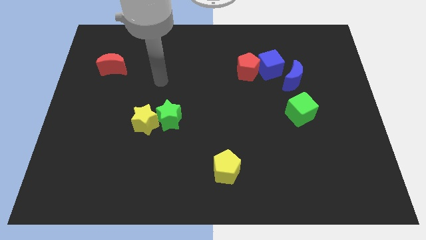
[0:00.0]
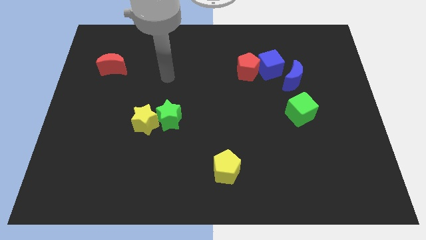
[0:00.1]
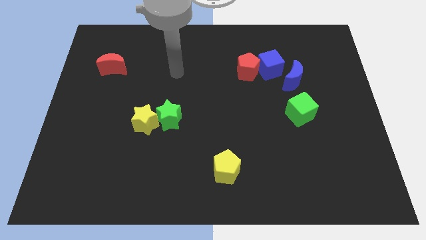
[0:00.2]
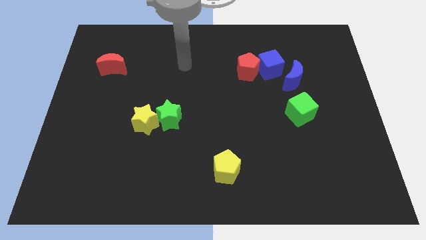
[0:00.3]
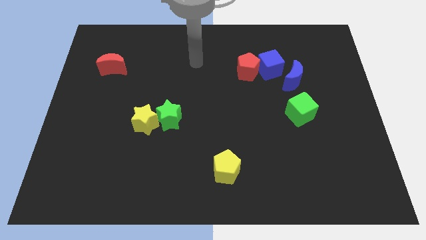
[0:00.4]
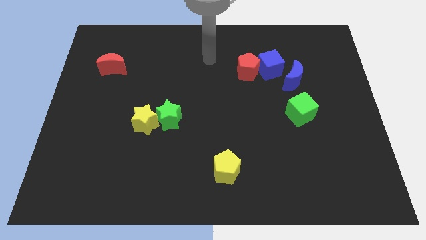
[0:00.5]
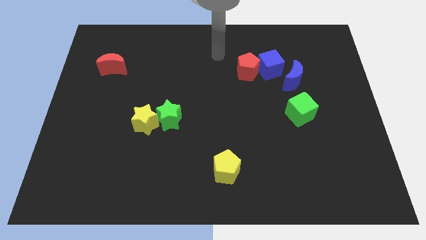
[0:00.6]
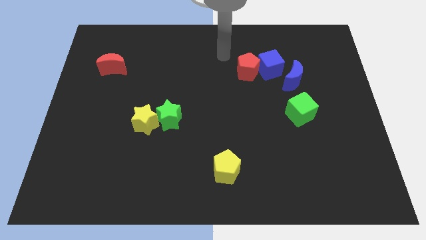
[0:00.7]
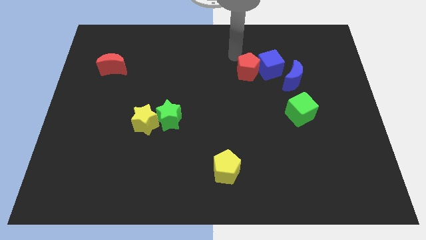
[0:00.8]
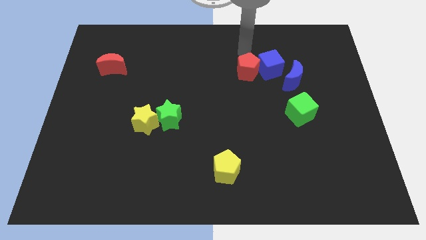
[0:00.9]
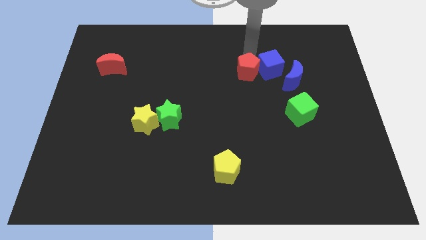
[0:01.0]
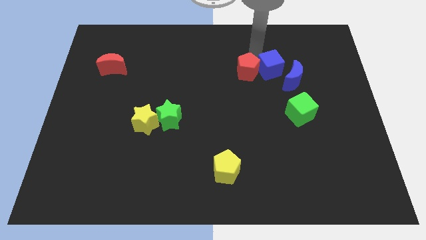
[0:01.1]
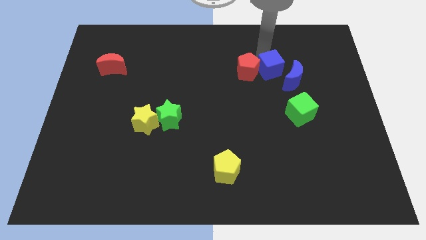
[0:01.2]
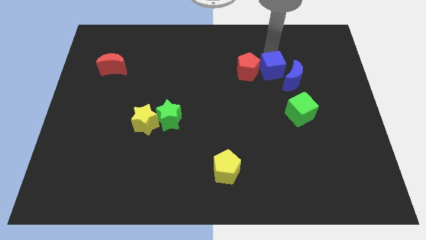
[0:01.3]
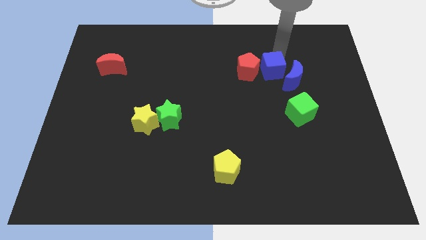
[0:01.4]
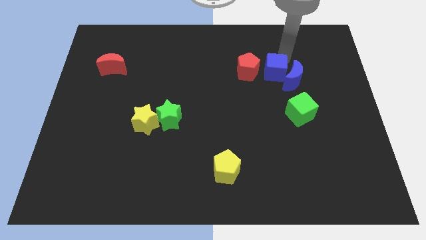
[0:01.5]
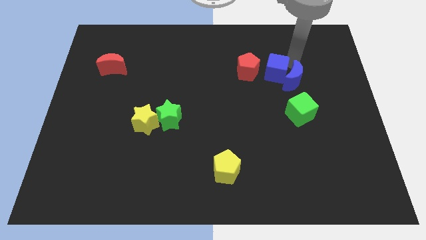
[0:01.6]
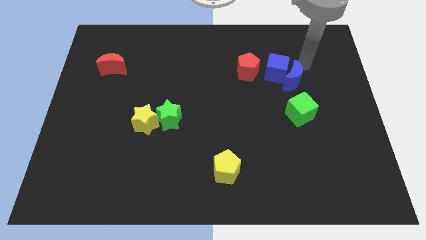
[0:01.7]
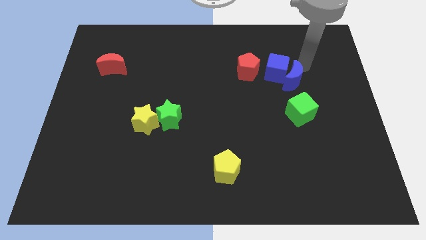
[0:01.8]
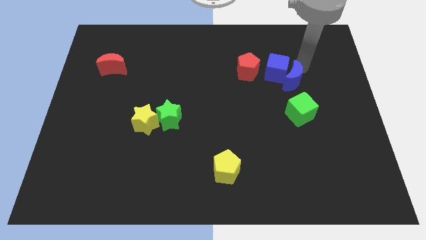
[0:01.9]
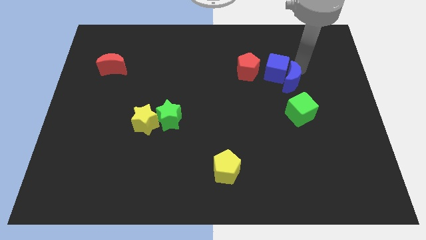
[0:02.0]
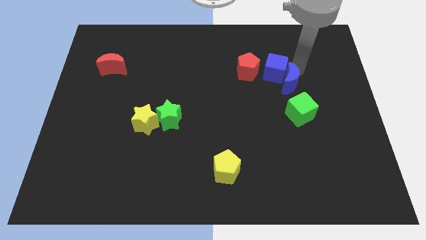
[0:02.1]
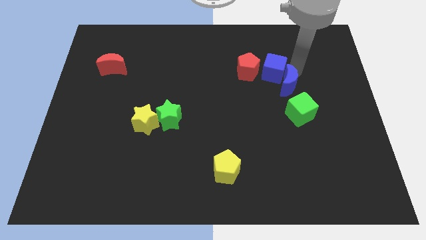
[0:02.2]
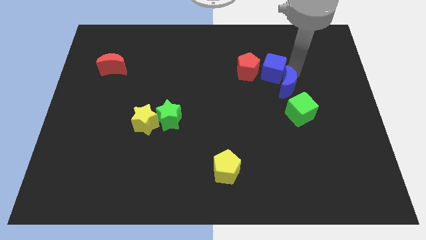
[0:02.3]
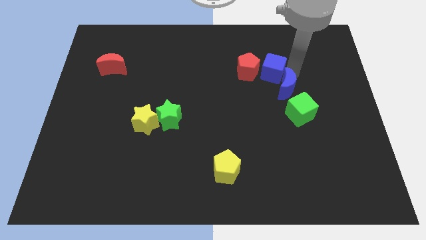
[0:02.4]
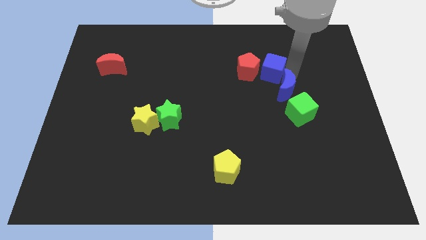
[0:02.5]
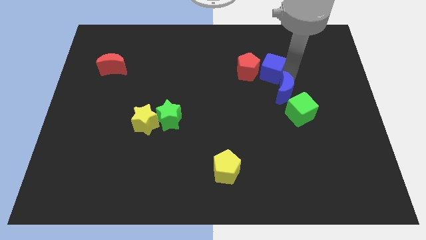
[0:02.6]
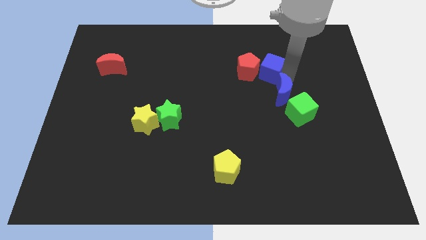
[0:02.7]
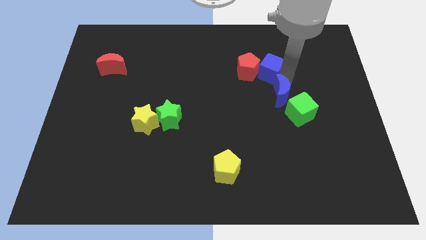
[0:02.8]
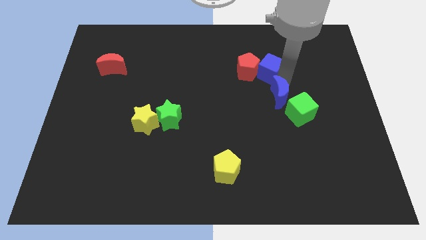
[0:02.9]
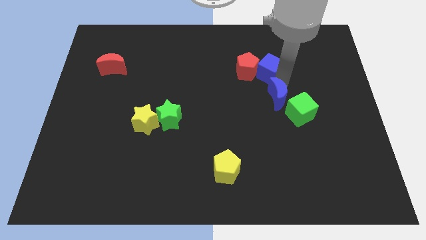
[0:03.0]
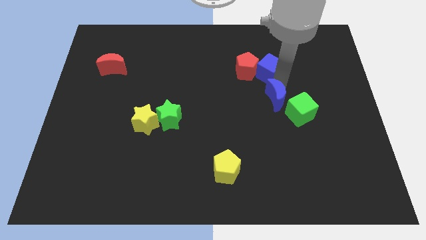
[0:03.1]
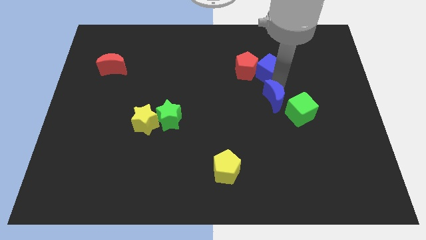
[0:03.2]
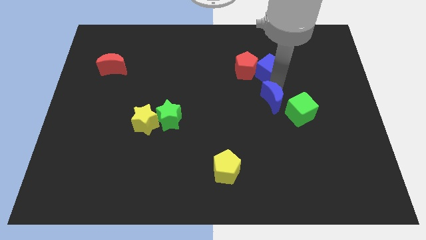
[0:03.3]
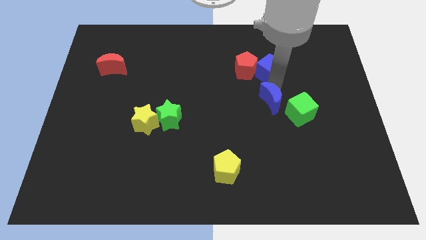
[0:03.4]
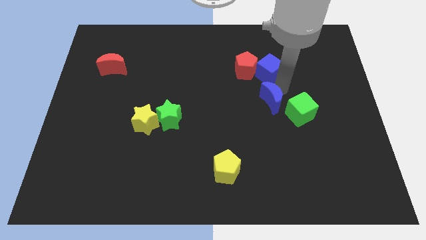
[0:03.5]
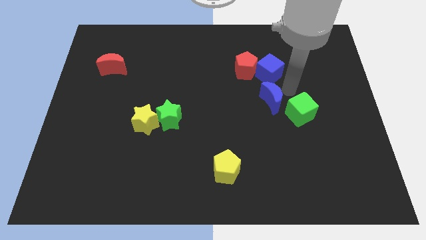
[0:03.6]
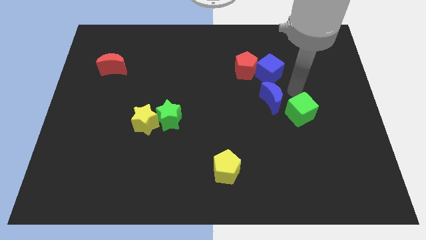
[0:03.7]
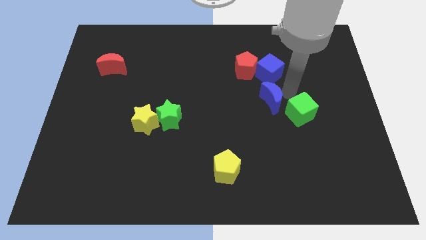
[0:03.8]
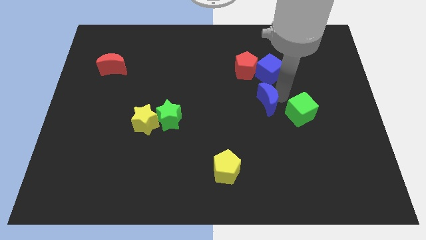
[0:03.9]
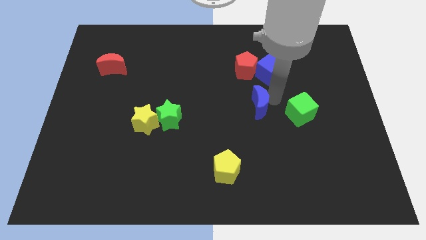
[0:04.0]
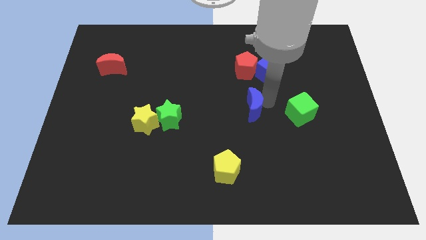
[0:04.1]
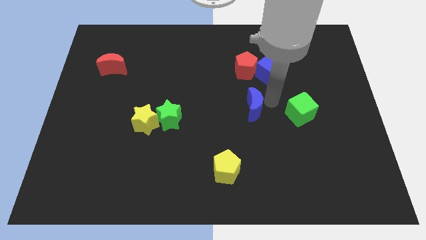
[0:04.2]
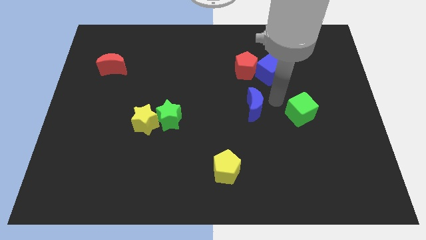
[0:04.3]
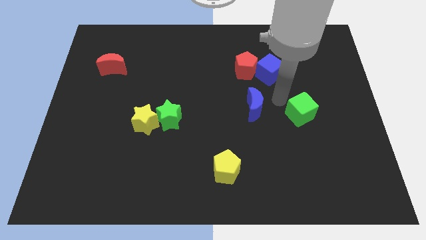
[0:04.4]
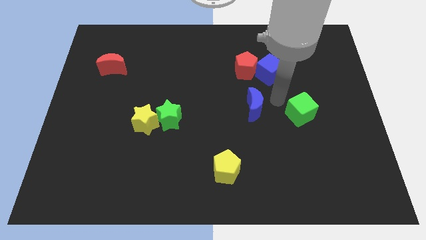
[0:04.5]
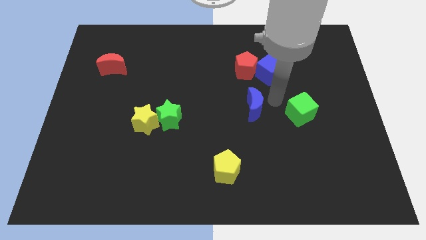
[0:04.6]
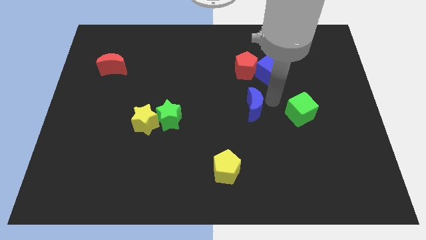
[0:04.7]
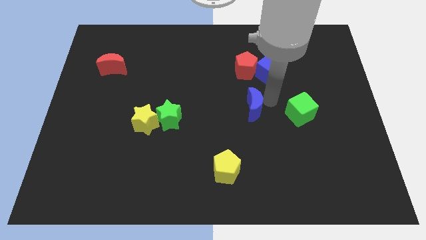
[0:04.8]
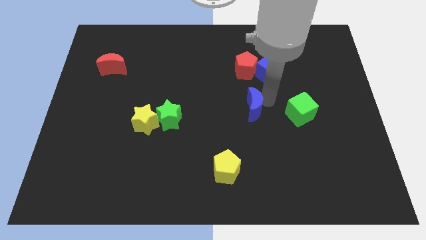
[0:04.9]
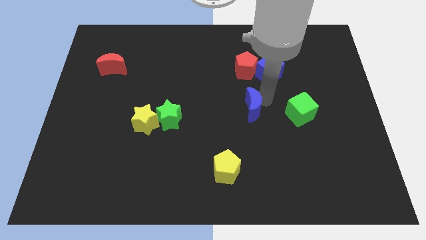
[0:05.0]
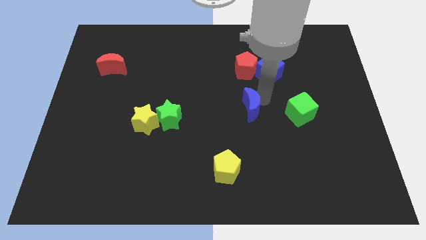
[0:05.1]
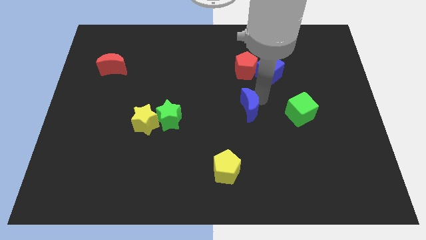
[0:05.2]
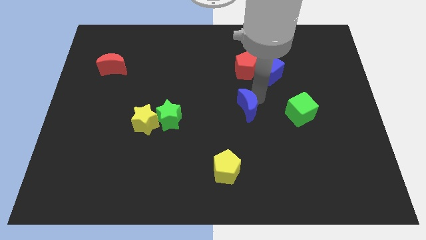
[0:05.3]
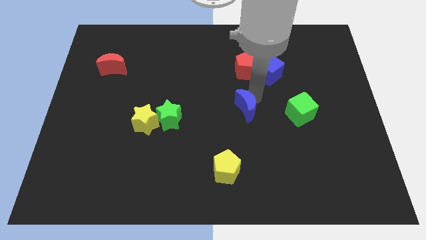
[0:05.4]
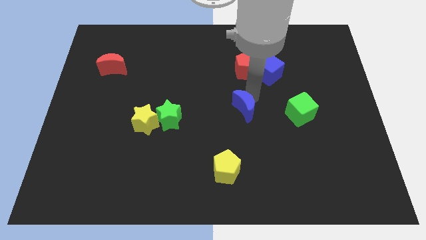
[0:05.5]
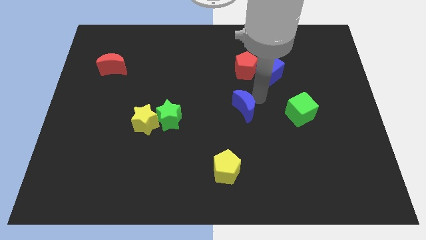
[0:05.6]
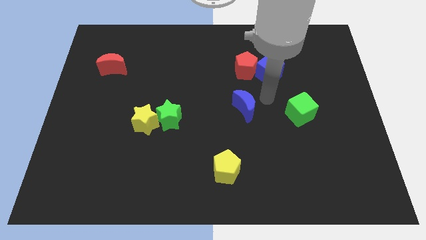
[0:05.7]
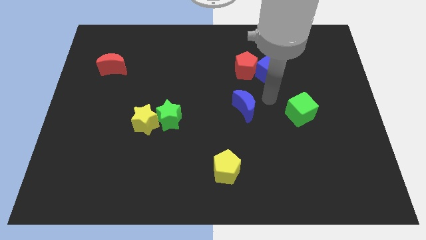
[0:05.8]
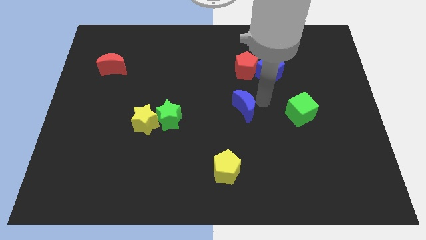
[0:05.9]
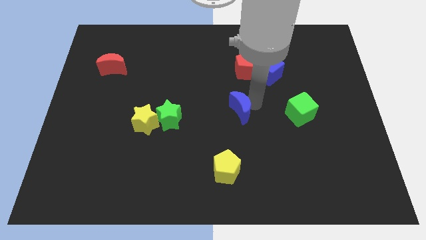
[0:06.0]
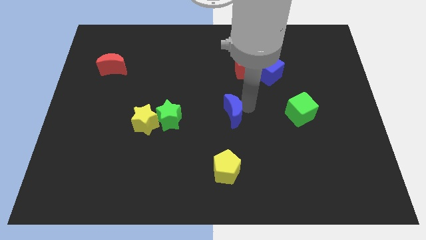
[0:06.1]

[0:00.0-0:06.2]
put the blue moon just right of the green star

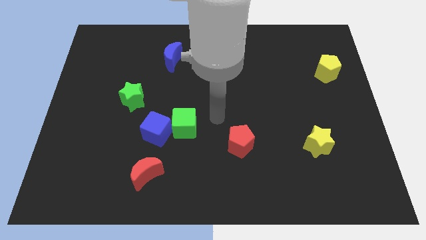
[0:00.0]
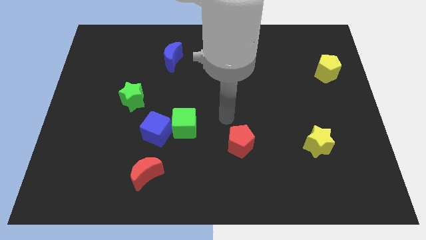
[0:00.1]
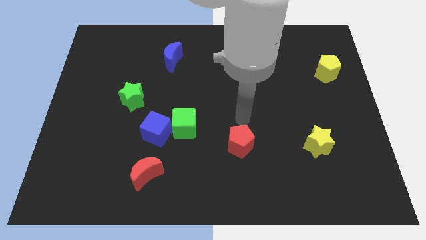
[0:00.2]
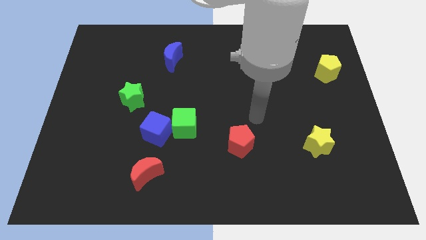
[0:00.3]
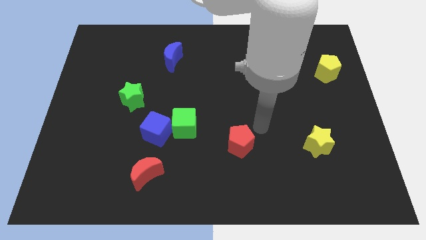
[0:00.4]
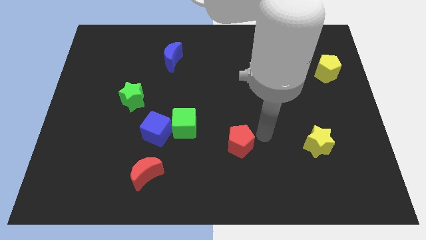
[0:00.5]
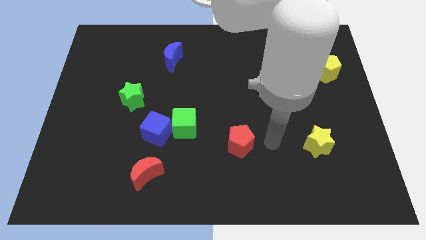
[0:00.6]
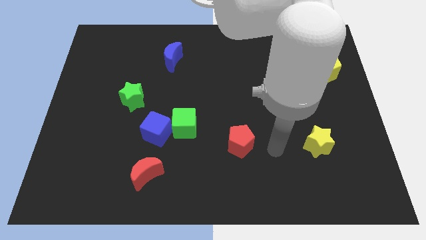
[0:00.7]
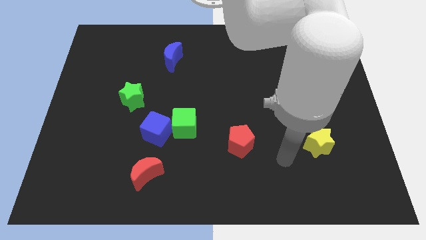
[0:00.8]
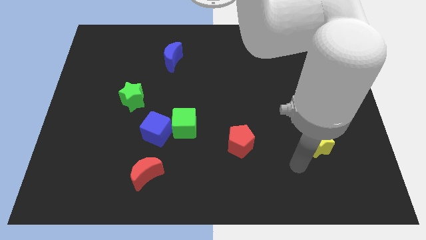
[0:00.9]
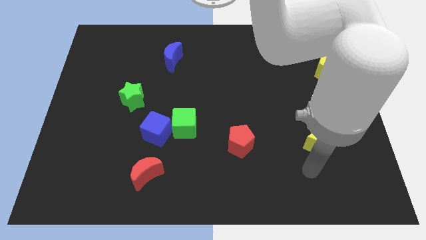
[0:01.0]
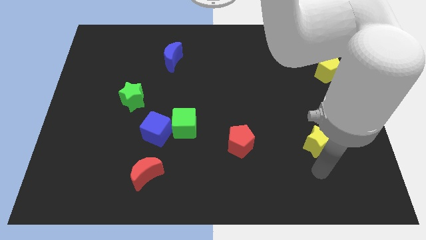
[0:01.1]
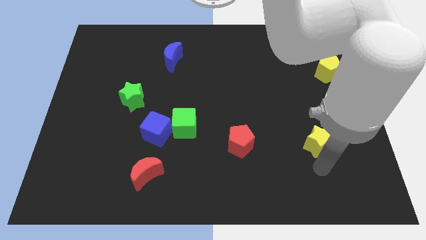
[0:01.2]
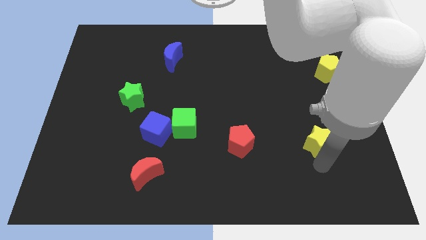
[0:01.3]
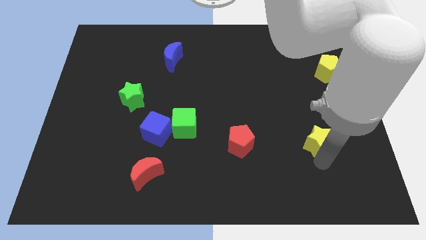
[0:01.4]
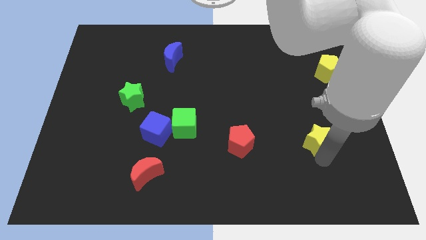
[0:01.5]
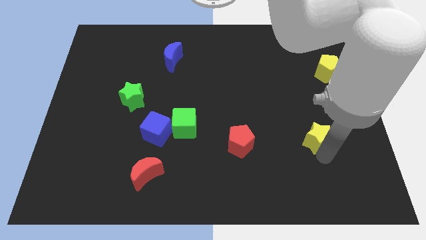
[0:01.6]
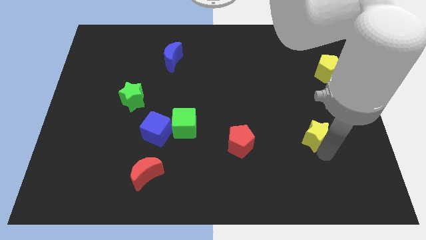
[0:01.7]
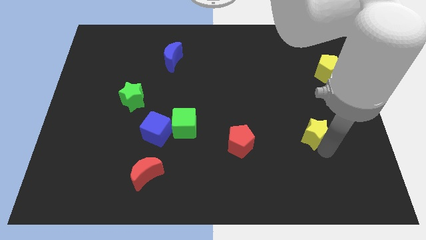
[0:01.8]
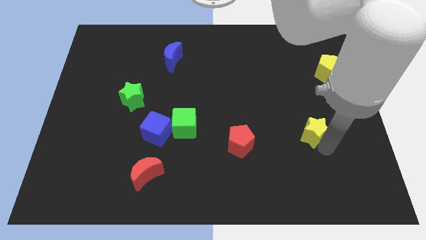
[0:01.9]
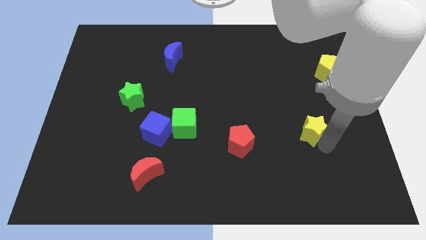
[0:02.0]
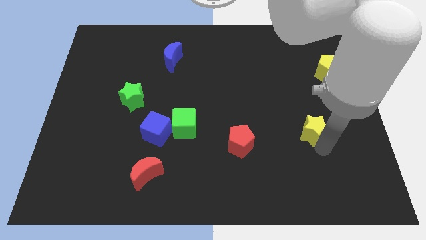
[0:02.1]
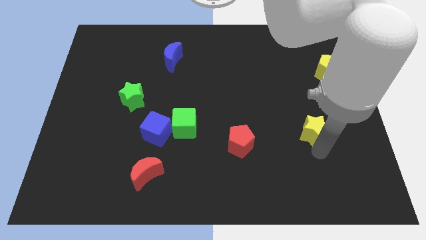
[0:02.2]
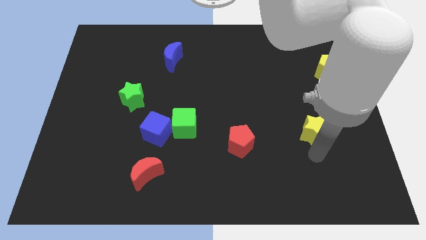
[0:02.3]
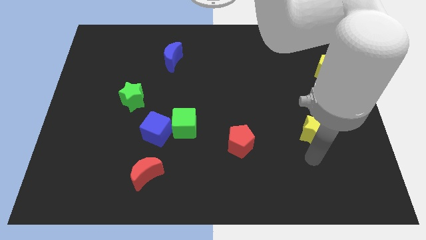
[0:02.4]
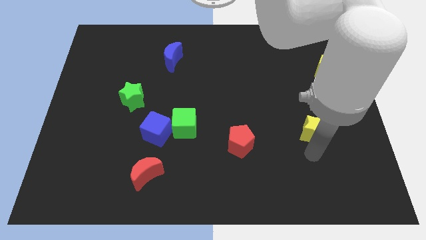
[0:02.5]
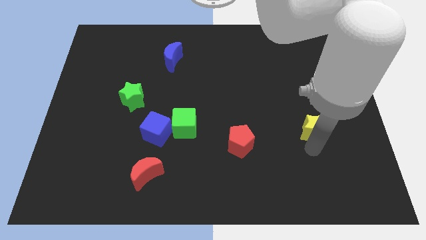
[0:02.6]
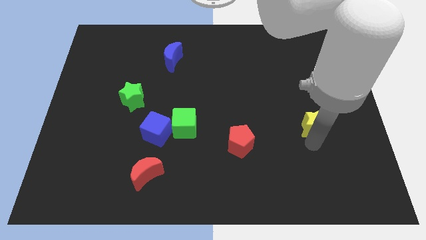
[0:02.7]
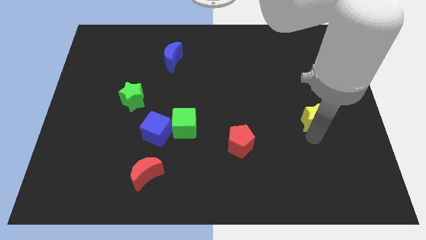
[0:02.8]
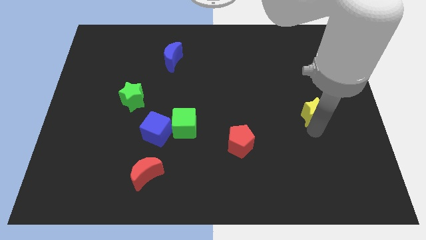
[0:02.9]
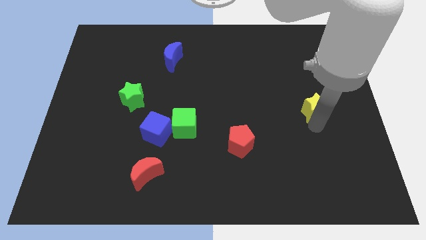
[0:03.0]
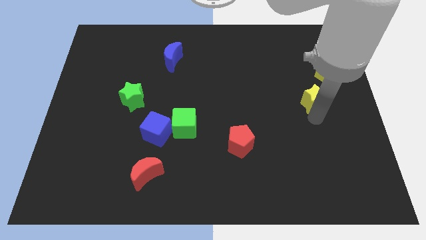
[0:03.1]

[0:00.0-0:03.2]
move the yellow star to the bottom left side of the yellow pentagon
